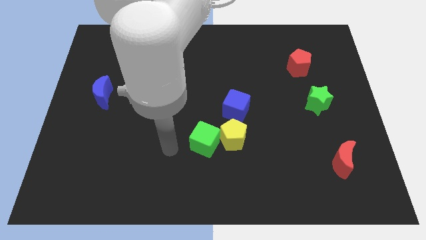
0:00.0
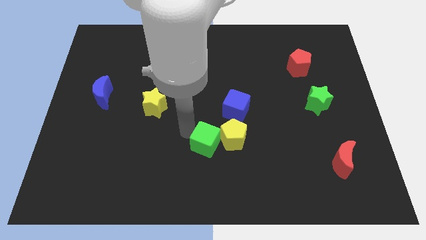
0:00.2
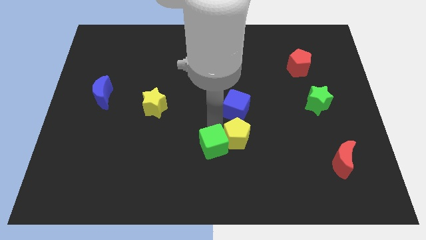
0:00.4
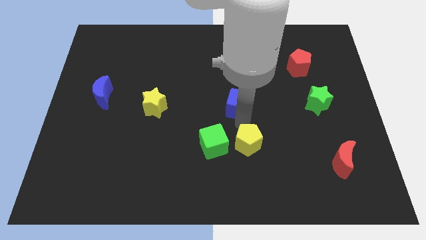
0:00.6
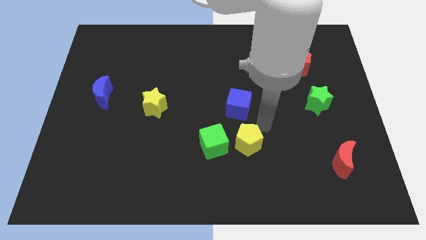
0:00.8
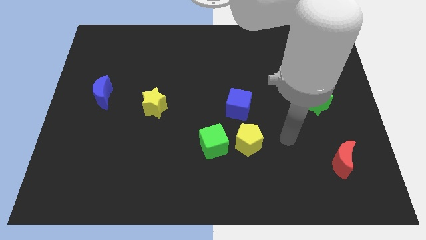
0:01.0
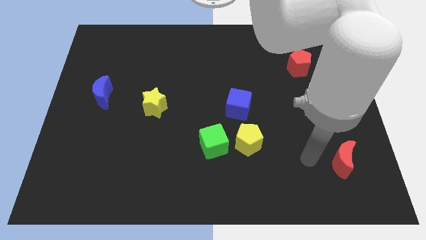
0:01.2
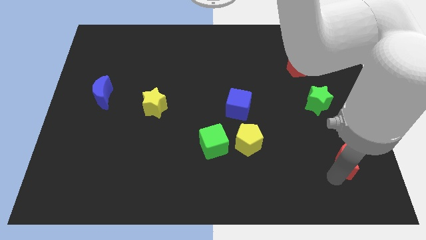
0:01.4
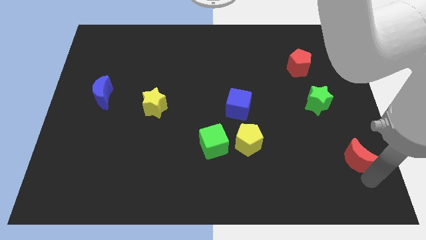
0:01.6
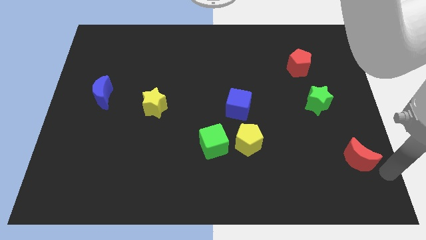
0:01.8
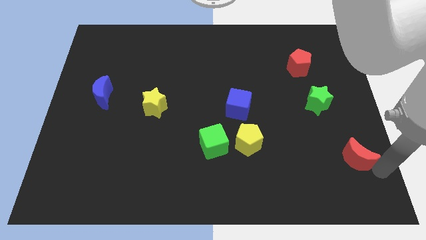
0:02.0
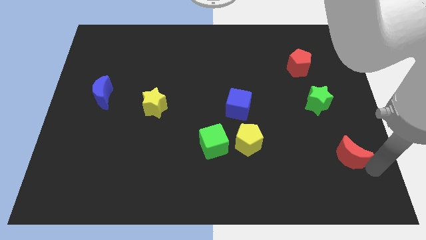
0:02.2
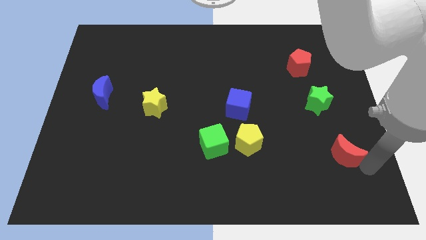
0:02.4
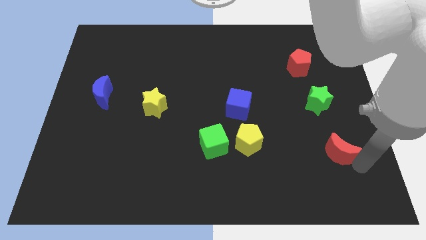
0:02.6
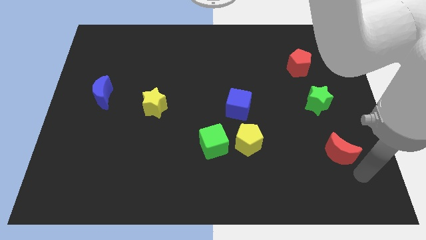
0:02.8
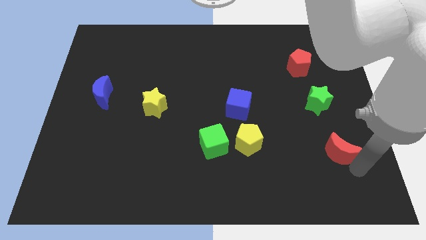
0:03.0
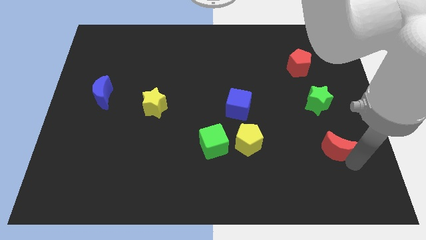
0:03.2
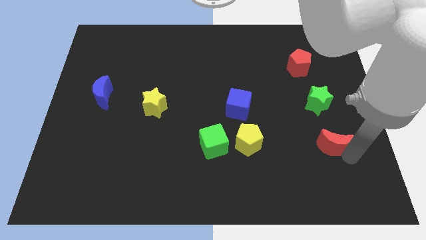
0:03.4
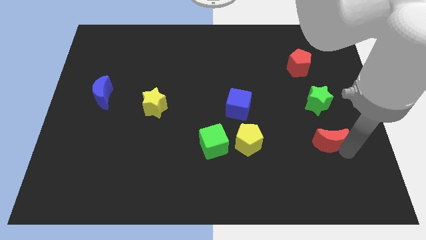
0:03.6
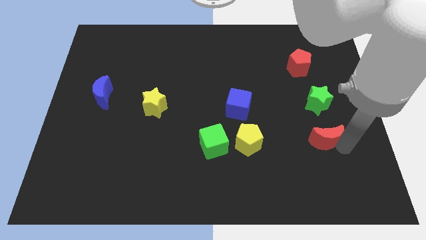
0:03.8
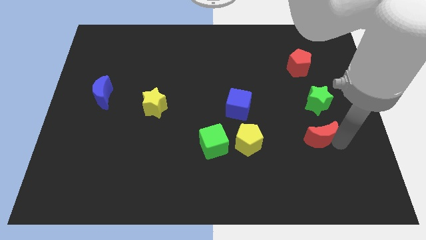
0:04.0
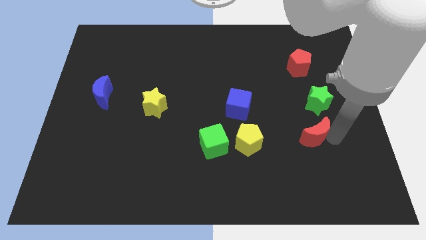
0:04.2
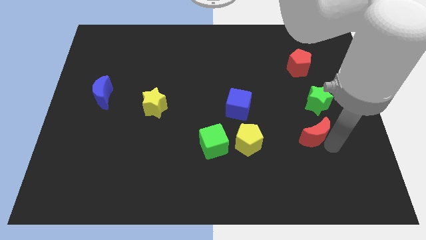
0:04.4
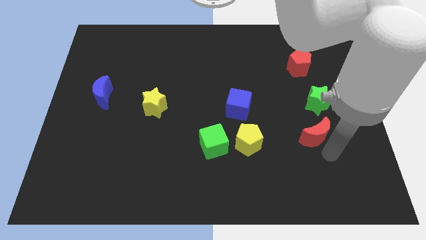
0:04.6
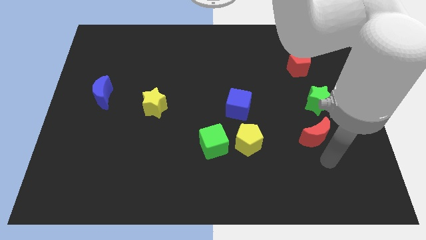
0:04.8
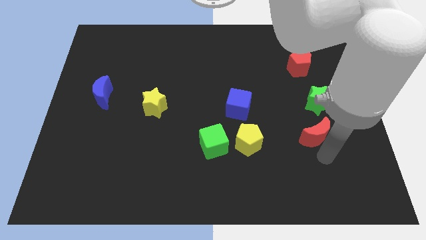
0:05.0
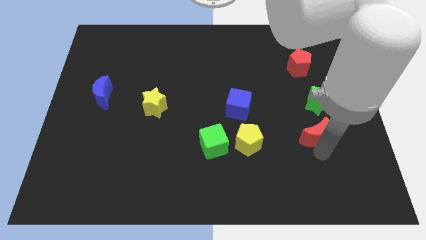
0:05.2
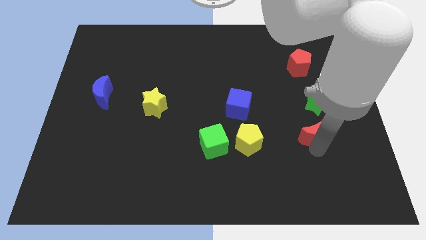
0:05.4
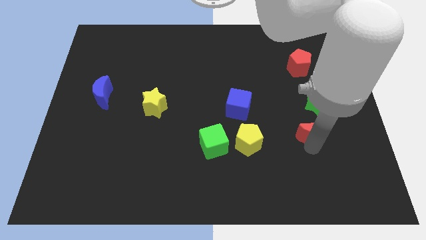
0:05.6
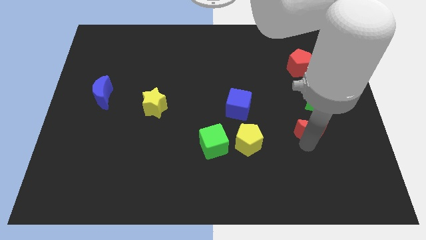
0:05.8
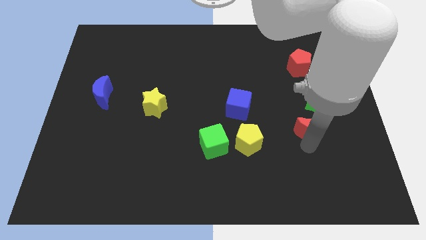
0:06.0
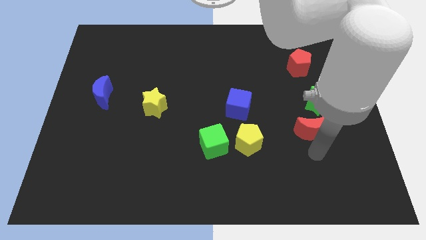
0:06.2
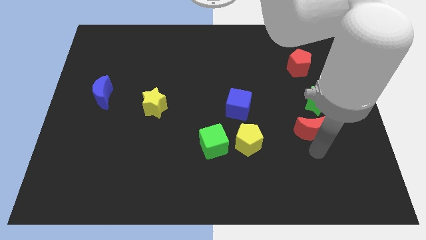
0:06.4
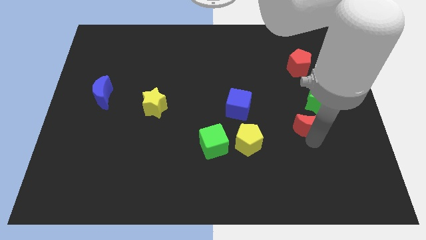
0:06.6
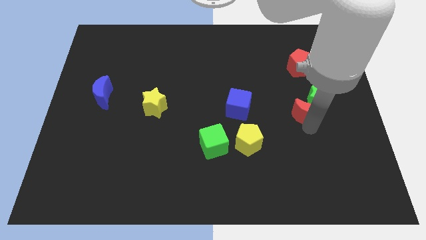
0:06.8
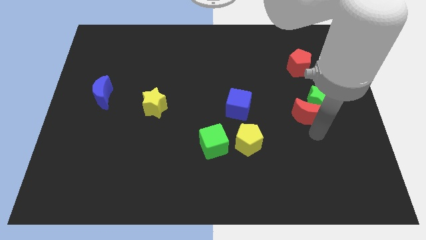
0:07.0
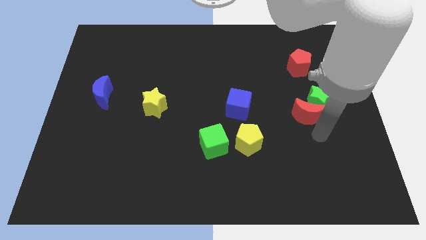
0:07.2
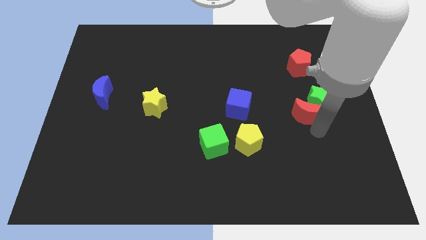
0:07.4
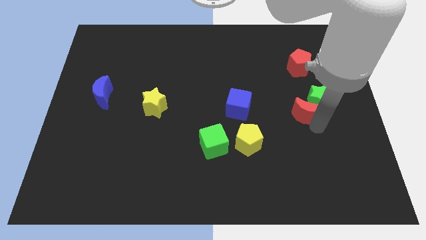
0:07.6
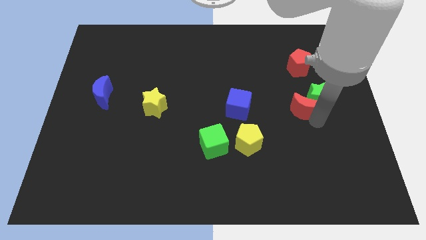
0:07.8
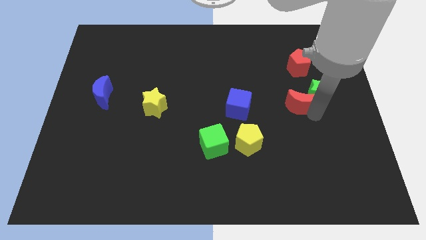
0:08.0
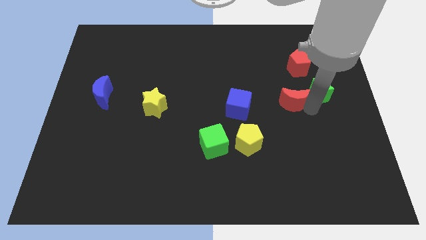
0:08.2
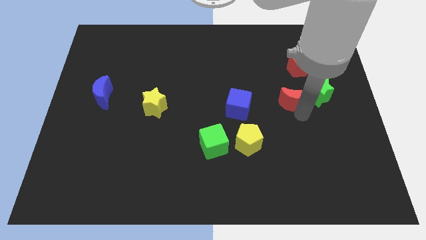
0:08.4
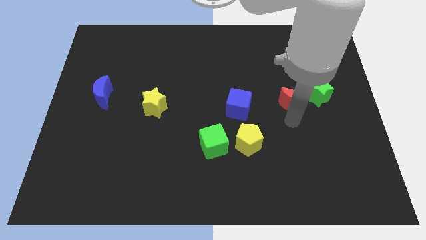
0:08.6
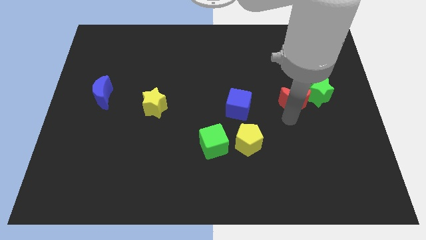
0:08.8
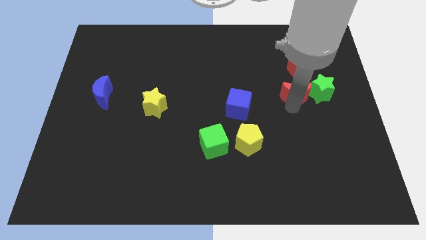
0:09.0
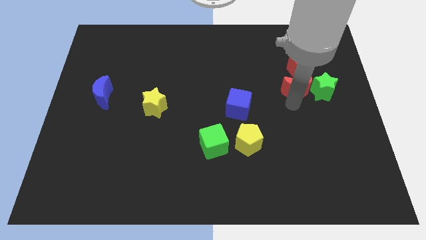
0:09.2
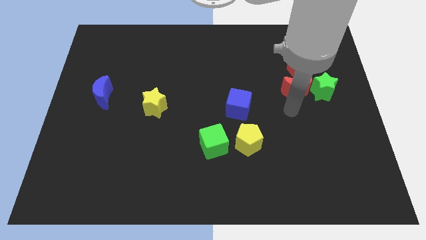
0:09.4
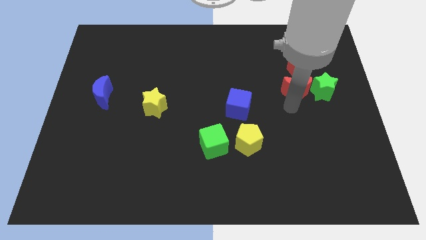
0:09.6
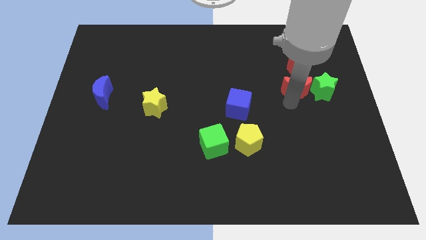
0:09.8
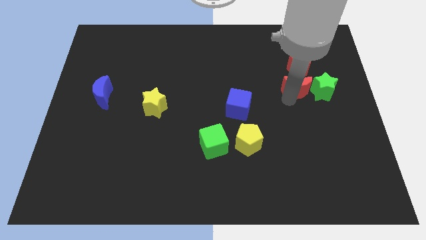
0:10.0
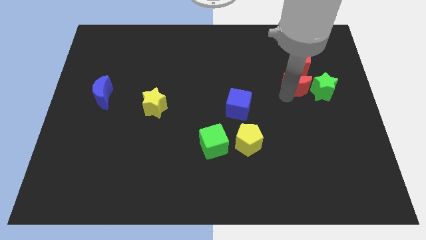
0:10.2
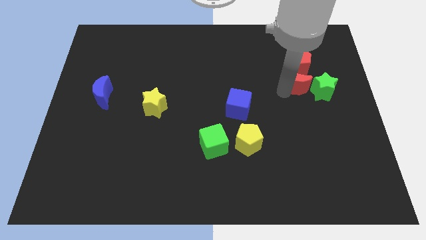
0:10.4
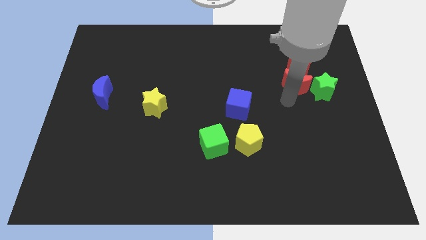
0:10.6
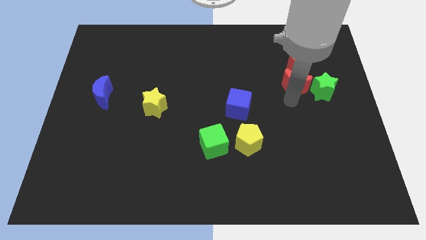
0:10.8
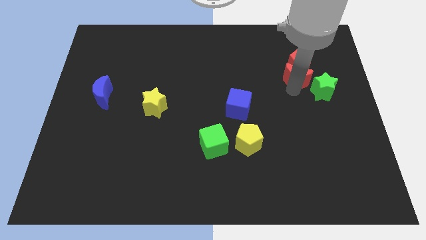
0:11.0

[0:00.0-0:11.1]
slide the red moon next to the red pentagon

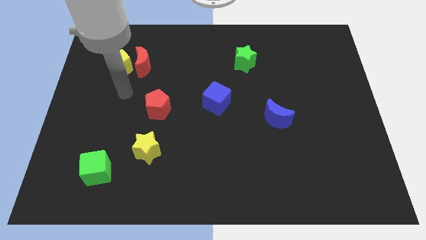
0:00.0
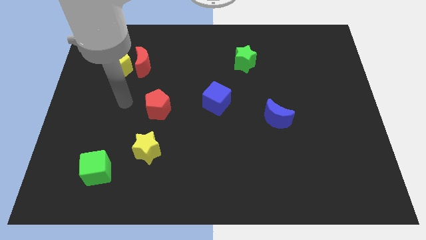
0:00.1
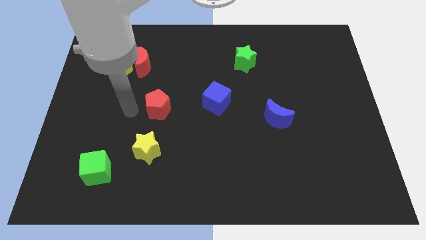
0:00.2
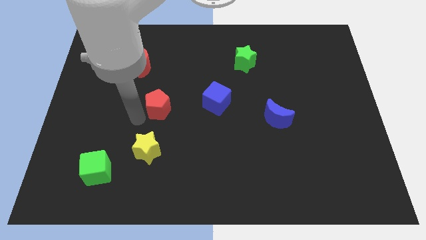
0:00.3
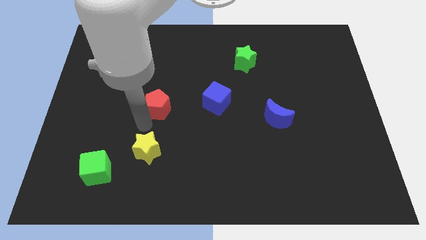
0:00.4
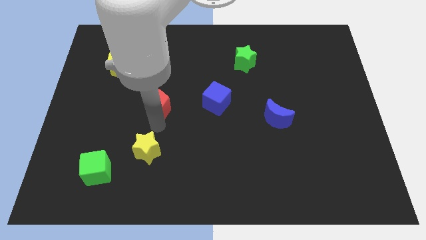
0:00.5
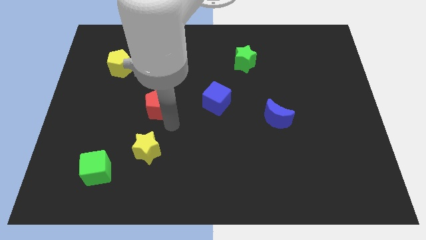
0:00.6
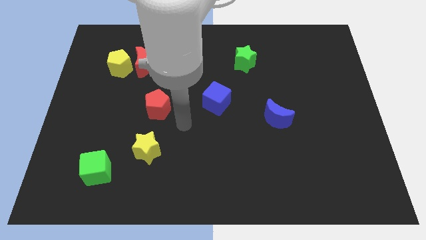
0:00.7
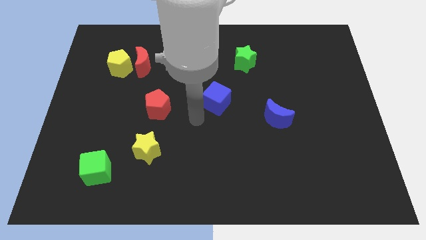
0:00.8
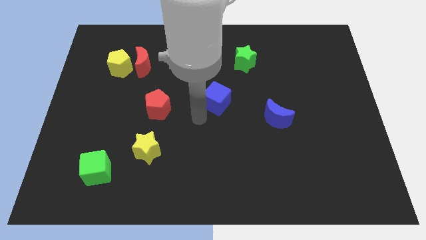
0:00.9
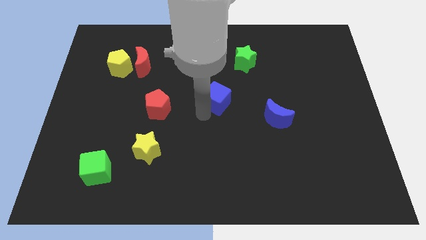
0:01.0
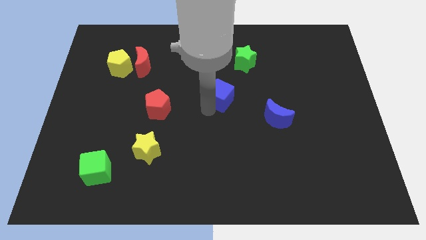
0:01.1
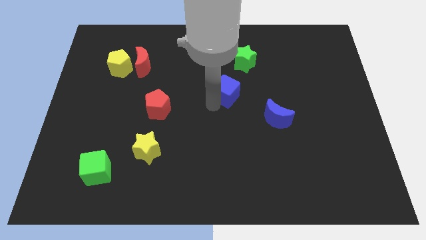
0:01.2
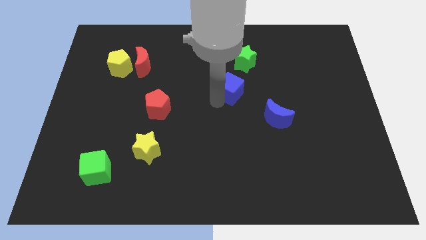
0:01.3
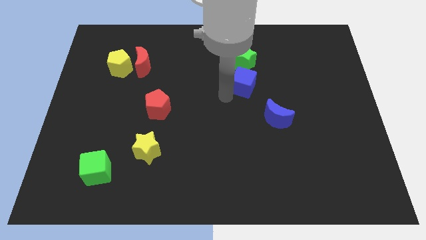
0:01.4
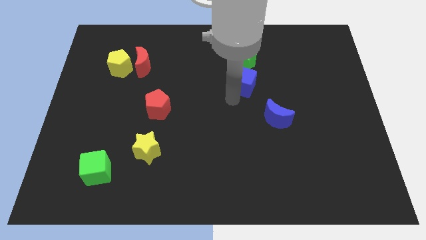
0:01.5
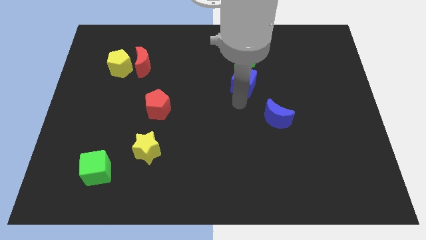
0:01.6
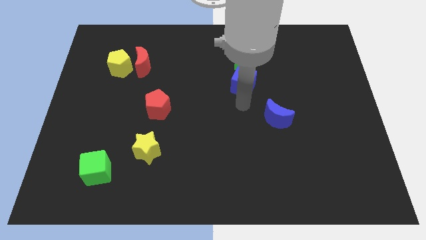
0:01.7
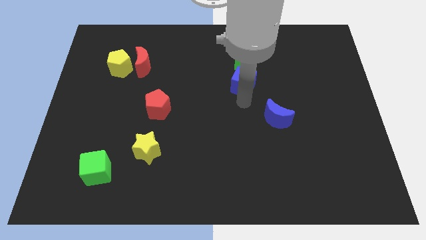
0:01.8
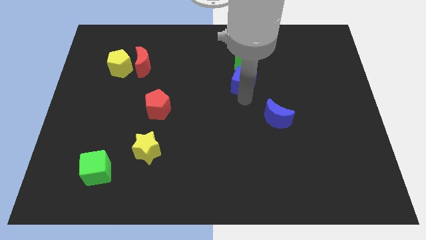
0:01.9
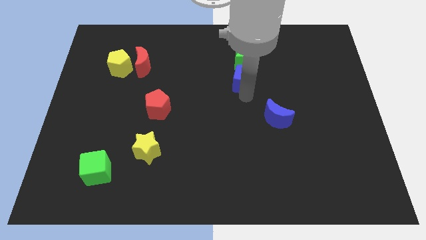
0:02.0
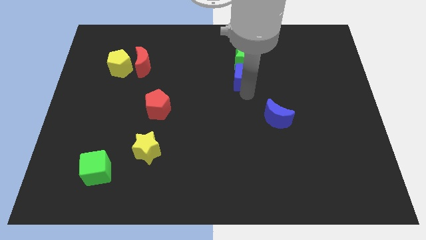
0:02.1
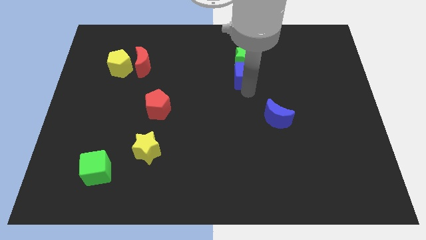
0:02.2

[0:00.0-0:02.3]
slide the blue cube towards the green star
